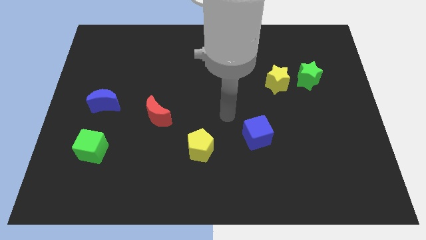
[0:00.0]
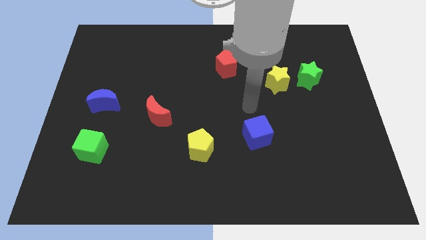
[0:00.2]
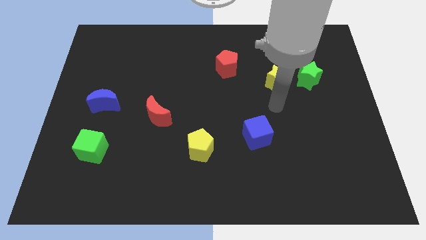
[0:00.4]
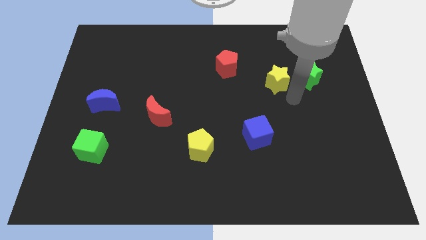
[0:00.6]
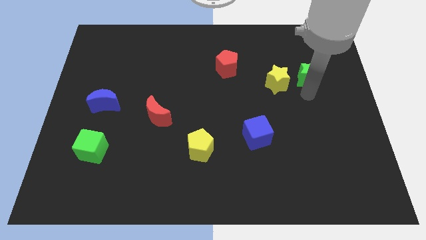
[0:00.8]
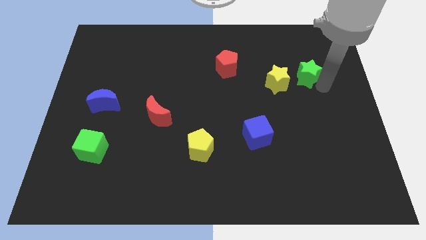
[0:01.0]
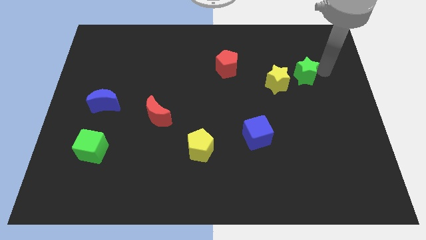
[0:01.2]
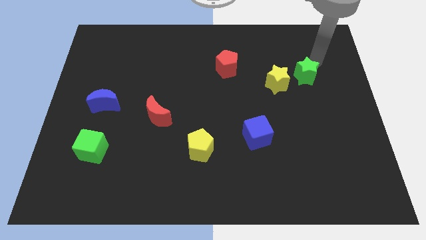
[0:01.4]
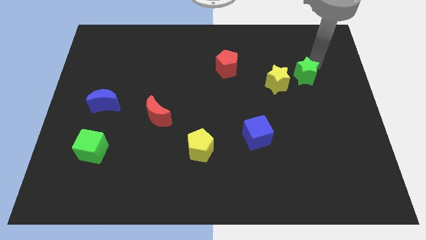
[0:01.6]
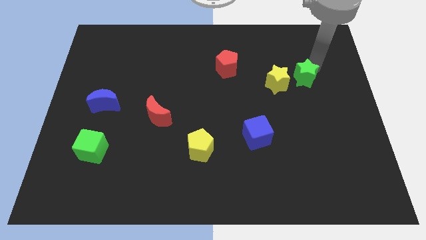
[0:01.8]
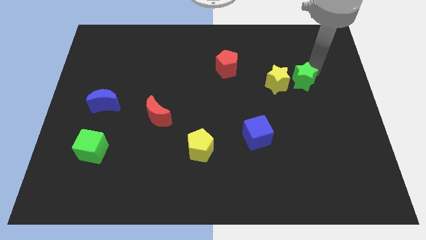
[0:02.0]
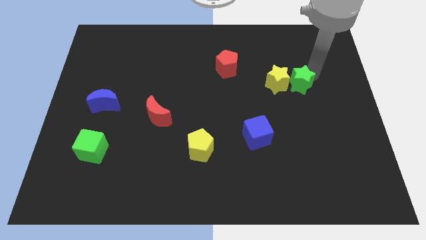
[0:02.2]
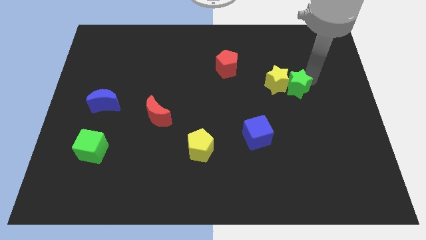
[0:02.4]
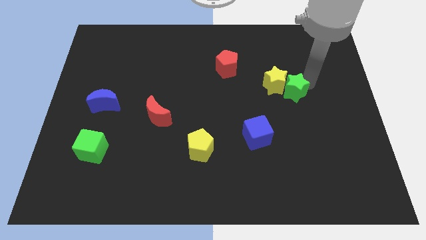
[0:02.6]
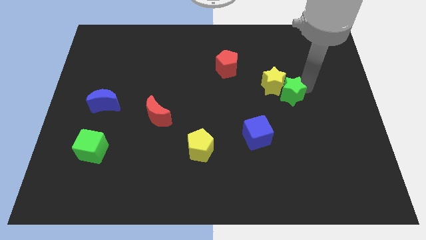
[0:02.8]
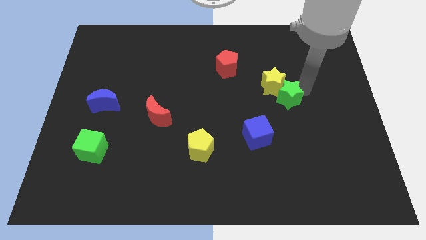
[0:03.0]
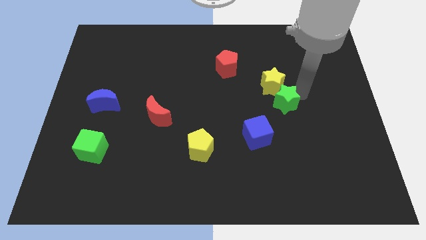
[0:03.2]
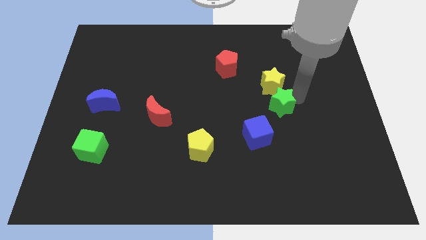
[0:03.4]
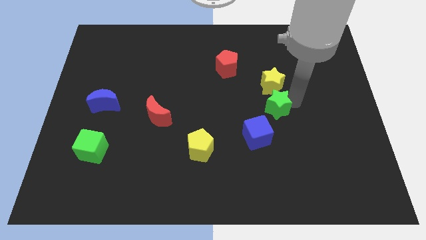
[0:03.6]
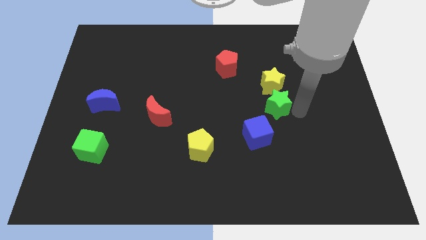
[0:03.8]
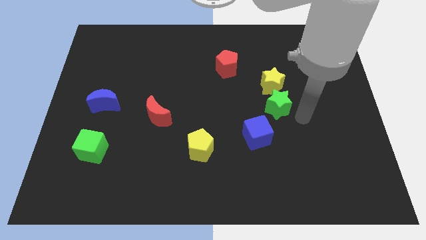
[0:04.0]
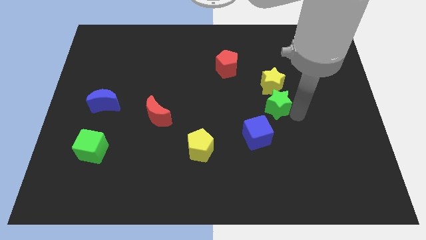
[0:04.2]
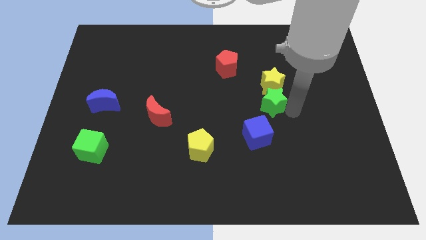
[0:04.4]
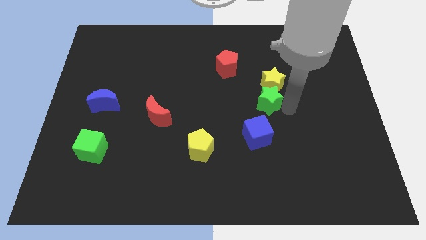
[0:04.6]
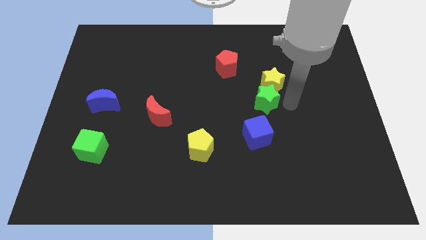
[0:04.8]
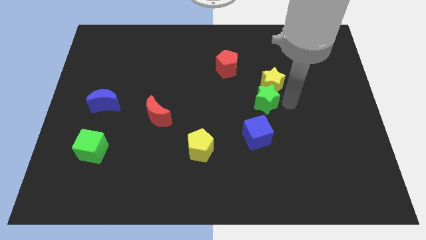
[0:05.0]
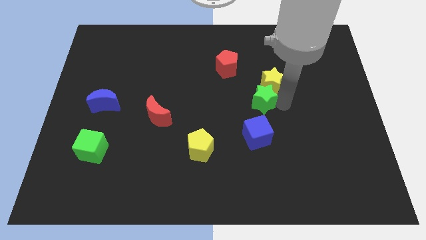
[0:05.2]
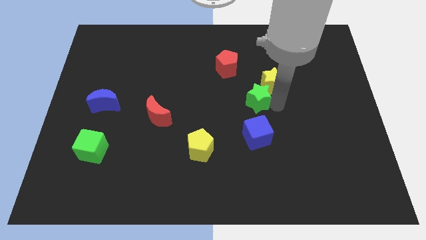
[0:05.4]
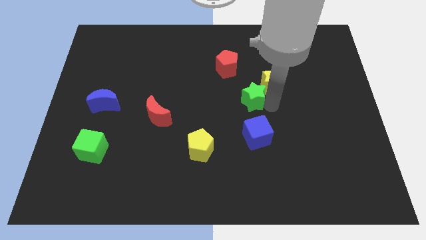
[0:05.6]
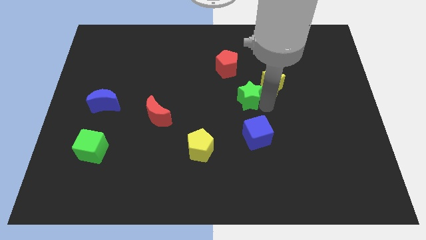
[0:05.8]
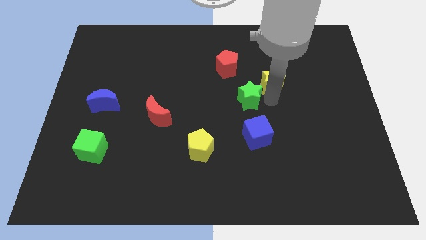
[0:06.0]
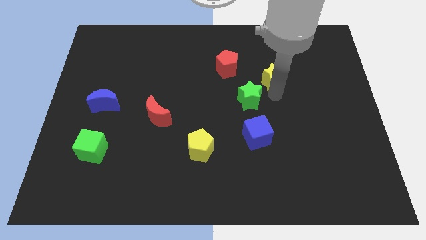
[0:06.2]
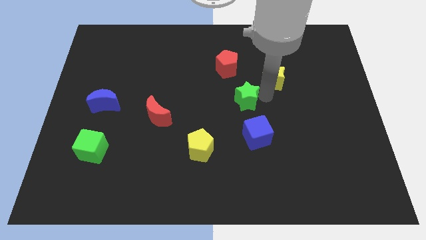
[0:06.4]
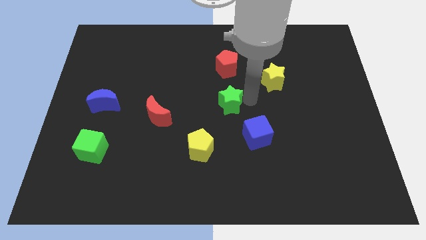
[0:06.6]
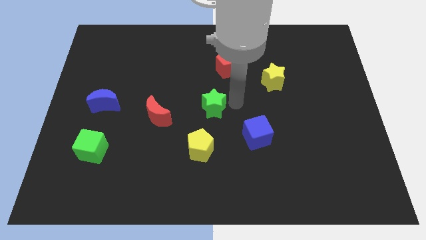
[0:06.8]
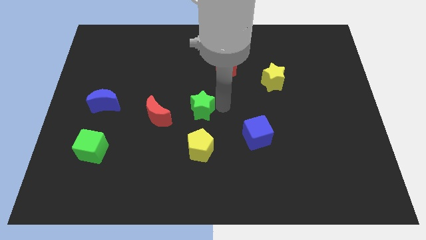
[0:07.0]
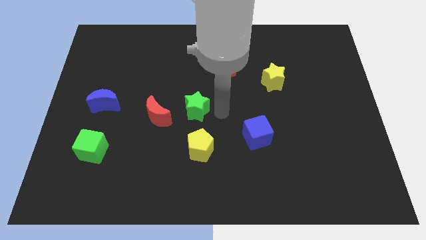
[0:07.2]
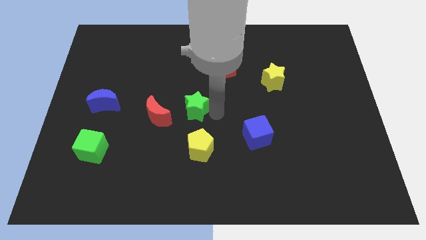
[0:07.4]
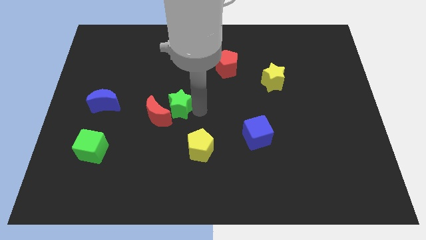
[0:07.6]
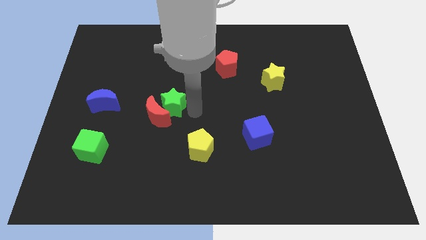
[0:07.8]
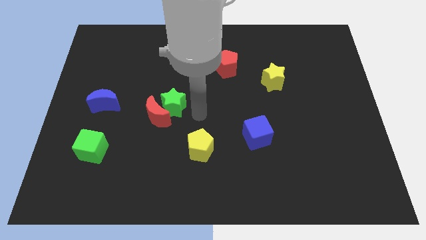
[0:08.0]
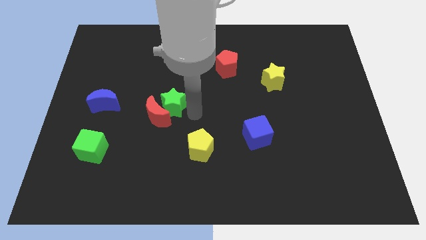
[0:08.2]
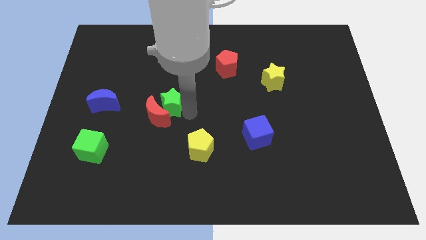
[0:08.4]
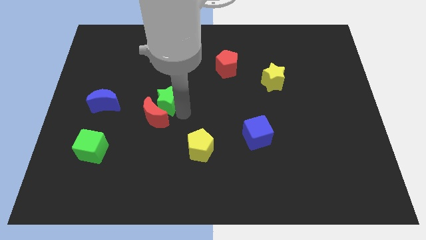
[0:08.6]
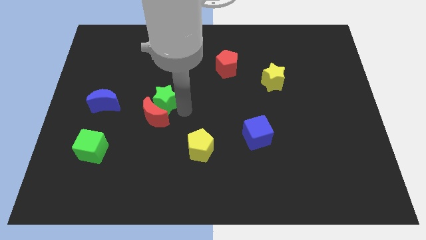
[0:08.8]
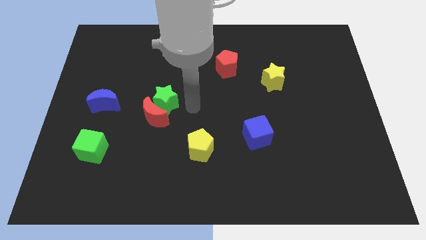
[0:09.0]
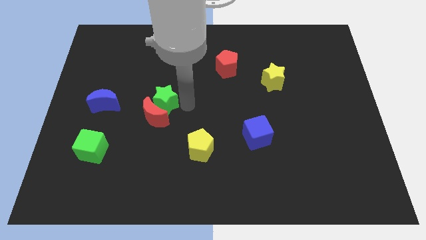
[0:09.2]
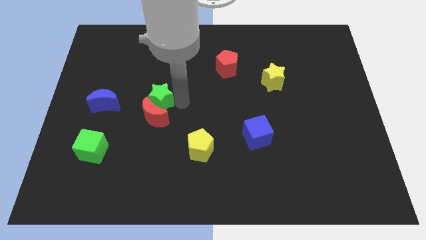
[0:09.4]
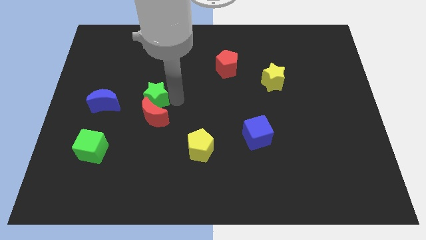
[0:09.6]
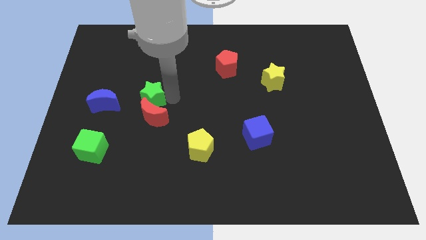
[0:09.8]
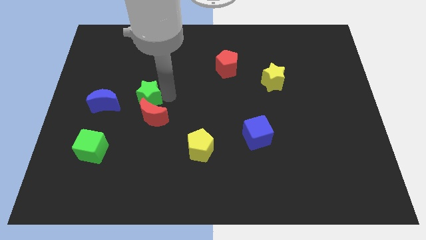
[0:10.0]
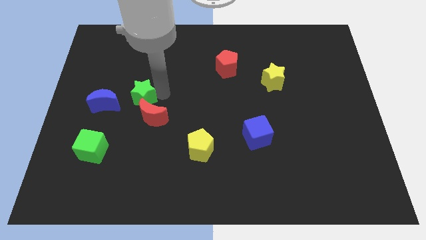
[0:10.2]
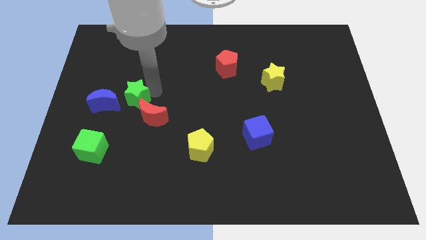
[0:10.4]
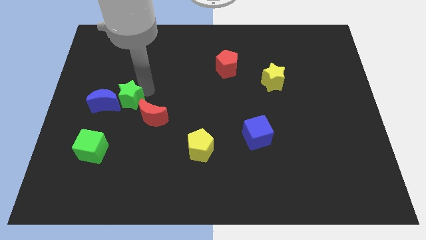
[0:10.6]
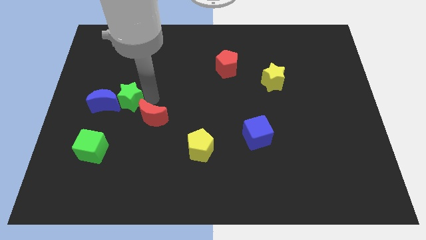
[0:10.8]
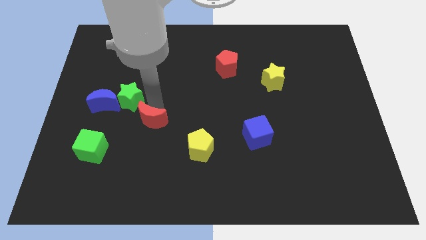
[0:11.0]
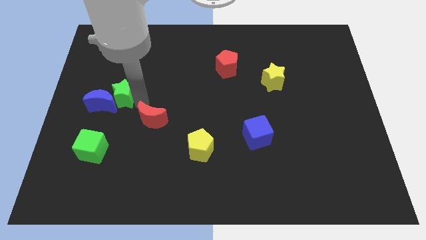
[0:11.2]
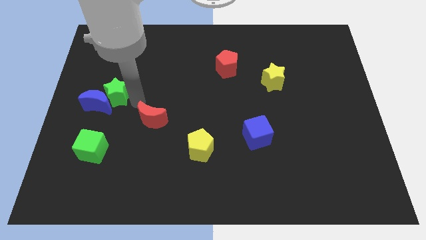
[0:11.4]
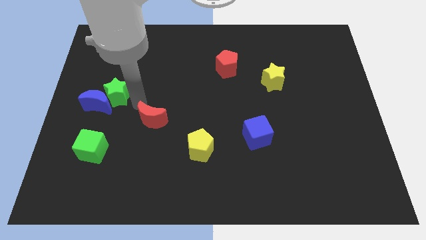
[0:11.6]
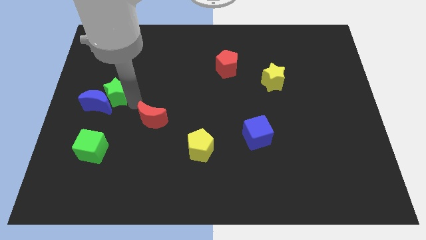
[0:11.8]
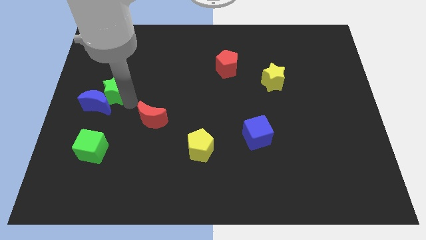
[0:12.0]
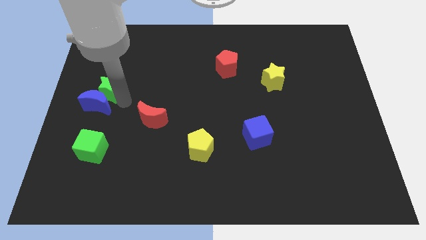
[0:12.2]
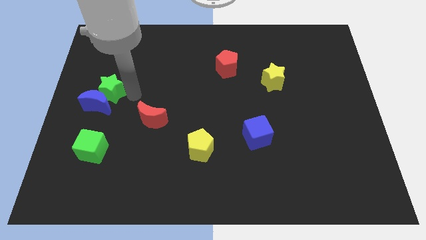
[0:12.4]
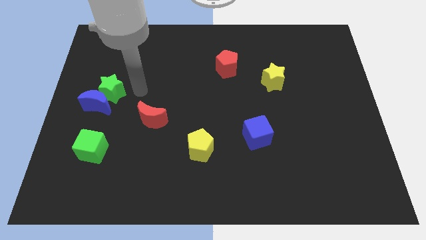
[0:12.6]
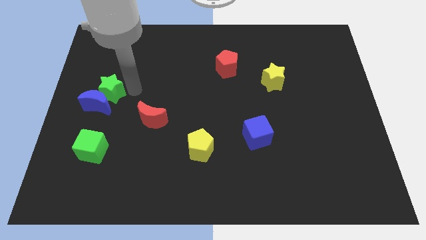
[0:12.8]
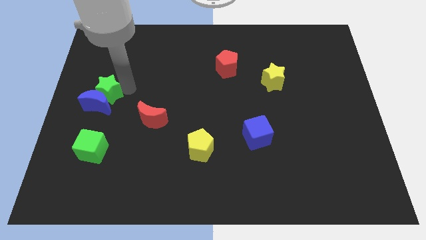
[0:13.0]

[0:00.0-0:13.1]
put the green star to the left side
